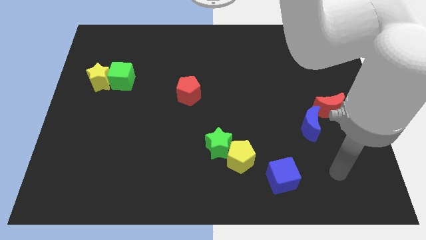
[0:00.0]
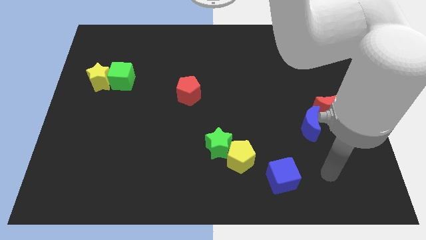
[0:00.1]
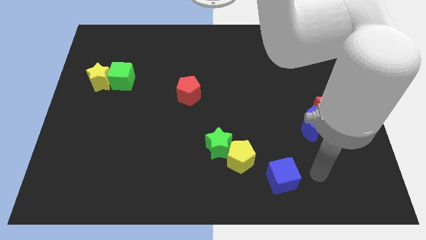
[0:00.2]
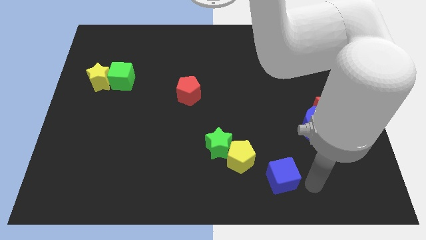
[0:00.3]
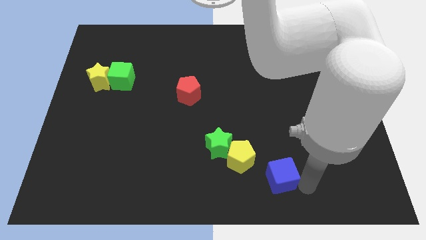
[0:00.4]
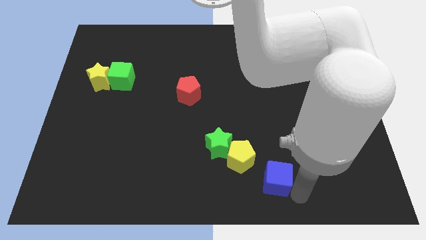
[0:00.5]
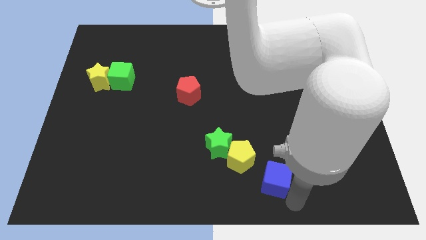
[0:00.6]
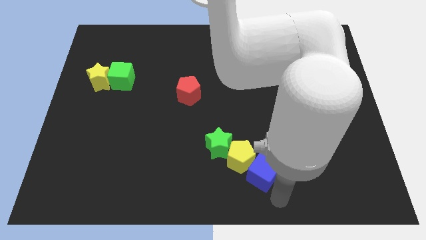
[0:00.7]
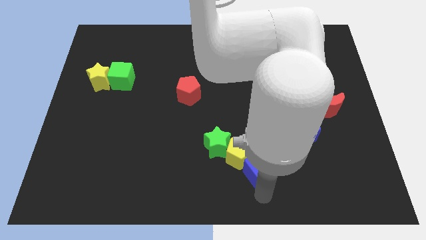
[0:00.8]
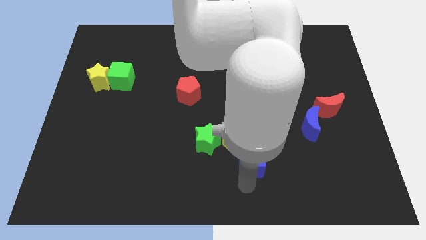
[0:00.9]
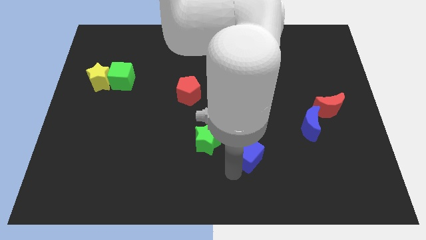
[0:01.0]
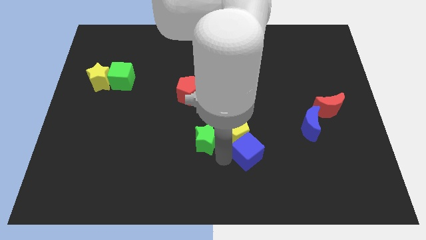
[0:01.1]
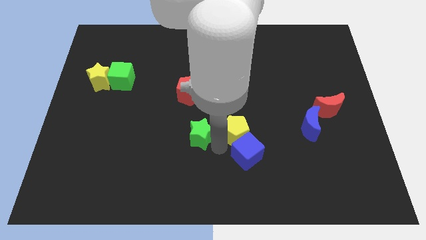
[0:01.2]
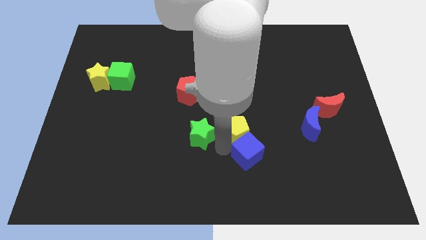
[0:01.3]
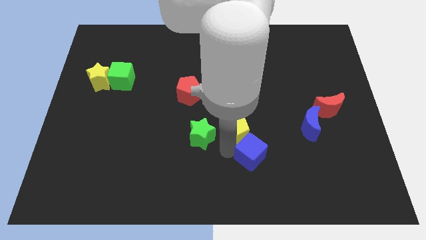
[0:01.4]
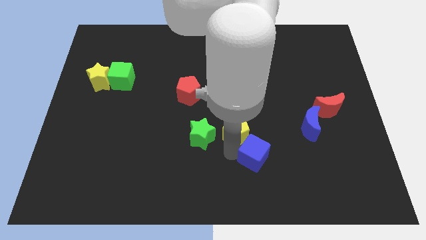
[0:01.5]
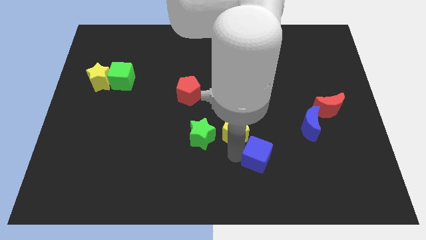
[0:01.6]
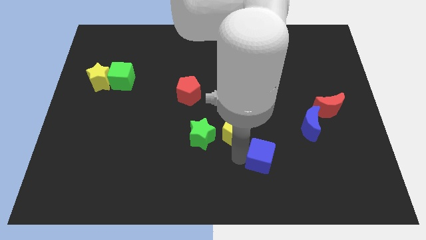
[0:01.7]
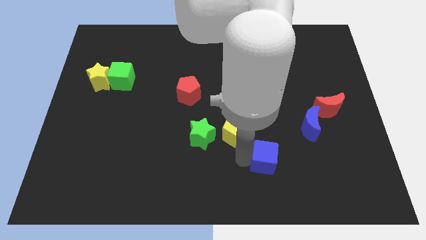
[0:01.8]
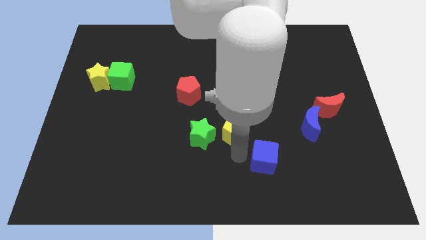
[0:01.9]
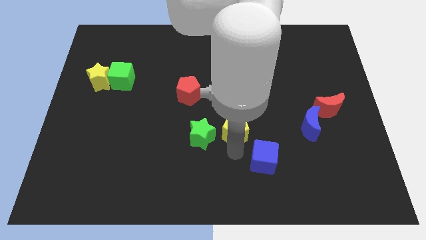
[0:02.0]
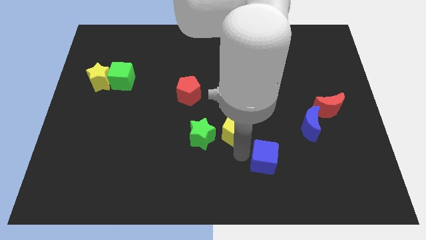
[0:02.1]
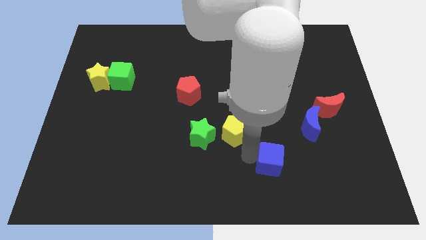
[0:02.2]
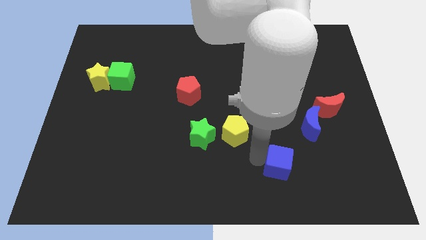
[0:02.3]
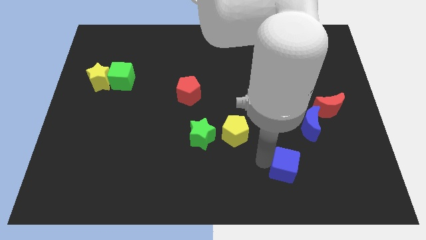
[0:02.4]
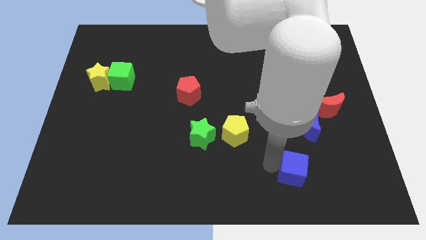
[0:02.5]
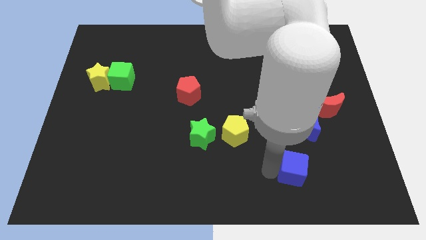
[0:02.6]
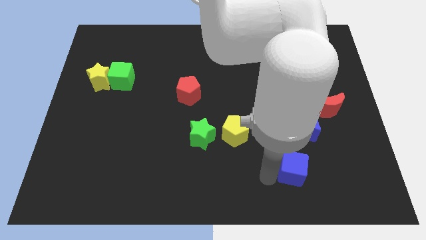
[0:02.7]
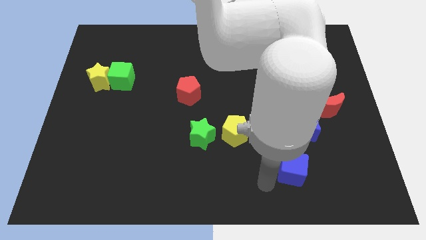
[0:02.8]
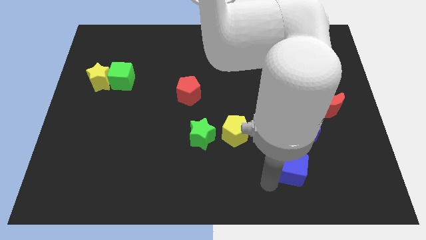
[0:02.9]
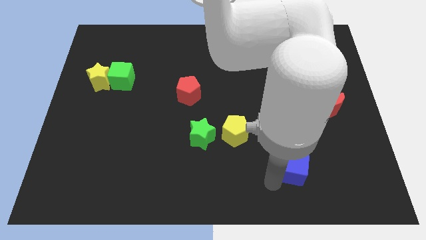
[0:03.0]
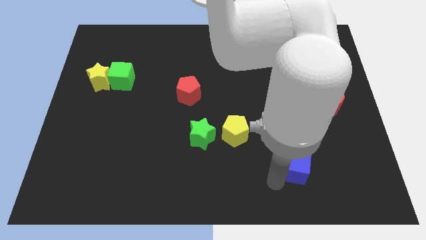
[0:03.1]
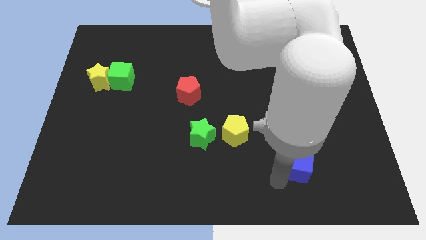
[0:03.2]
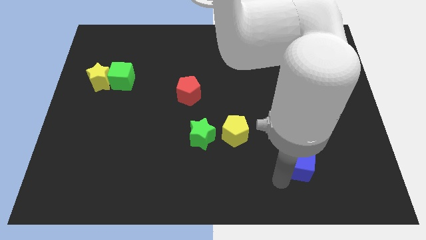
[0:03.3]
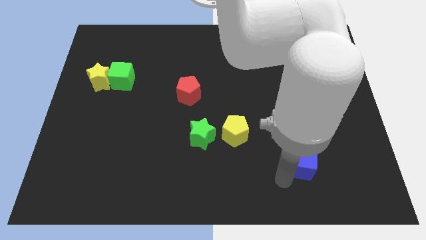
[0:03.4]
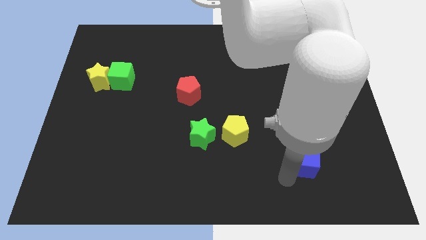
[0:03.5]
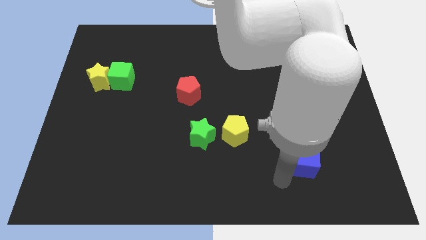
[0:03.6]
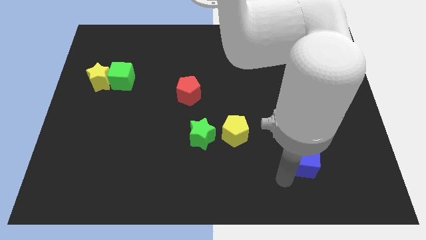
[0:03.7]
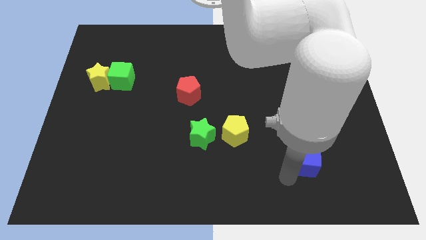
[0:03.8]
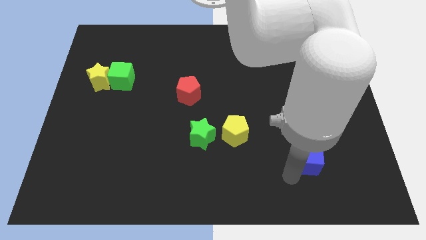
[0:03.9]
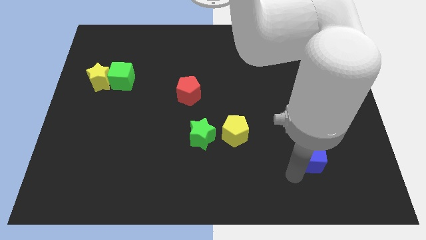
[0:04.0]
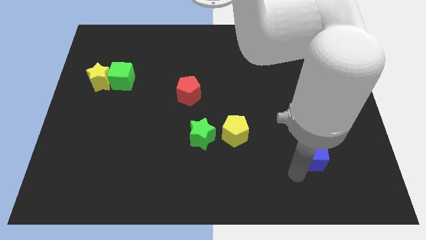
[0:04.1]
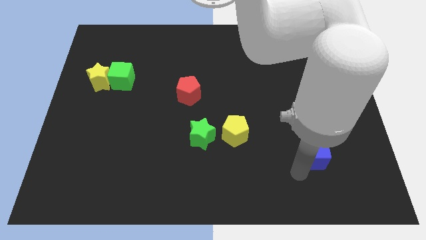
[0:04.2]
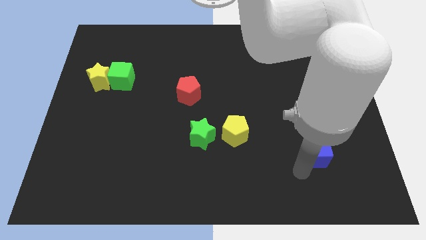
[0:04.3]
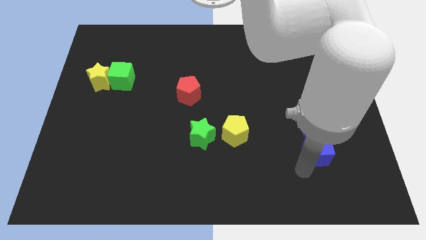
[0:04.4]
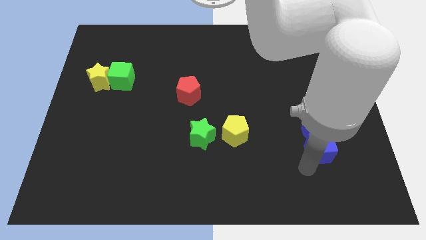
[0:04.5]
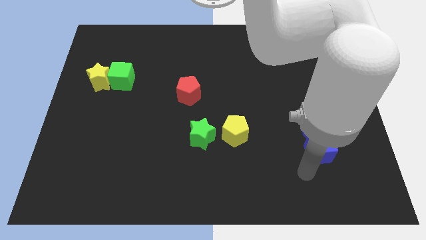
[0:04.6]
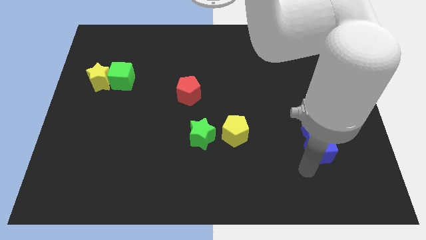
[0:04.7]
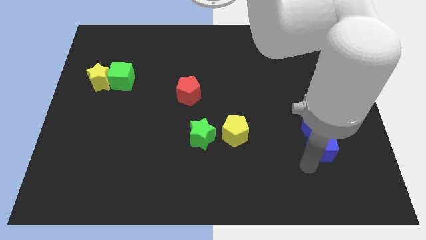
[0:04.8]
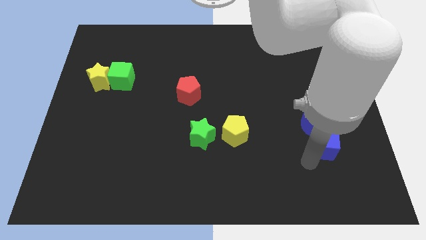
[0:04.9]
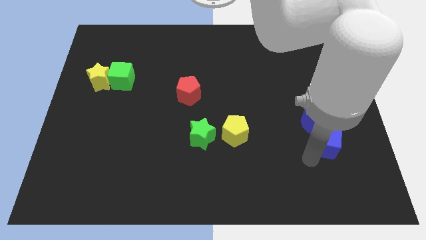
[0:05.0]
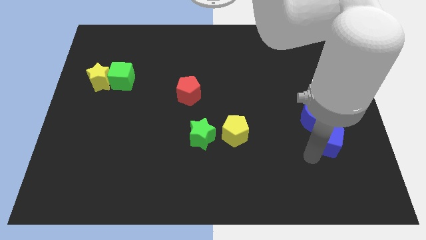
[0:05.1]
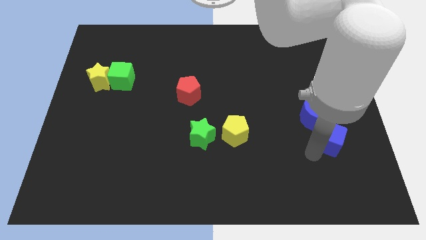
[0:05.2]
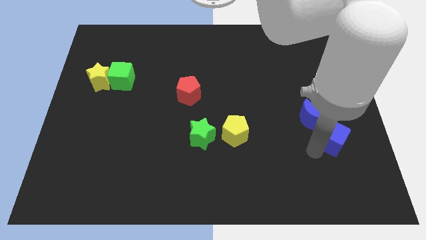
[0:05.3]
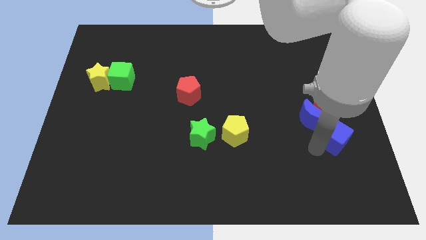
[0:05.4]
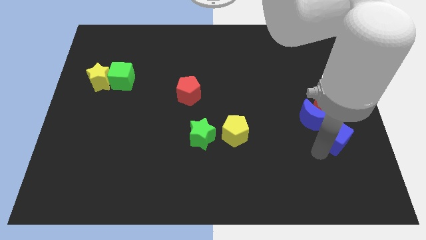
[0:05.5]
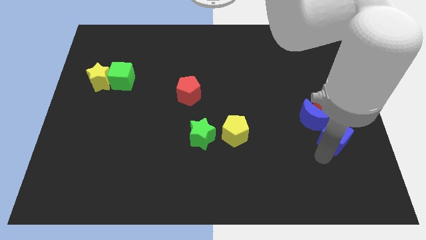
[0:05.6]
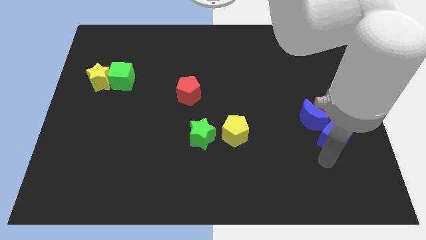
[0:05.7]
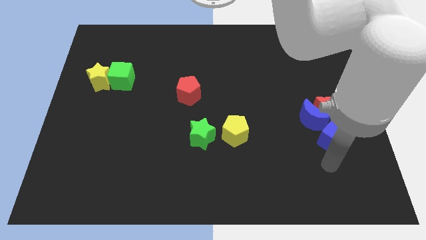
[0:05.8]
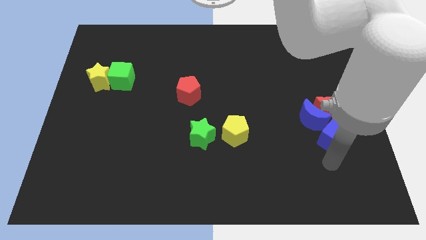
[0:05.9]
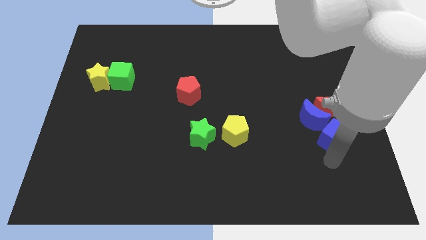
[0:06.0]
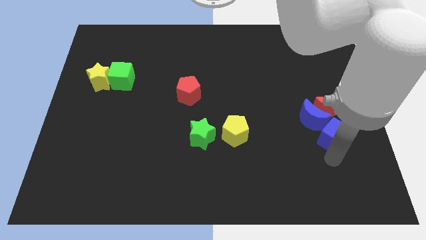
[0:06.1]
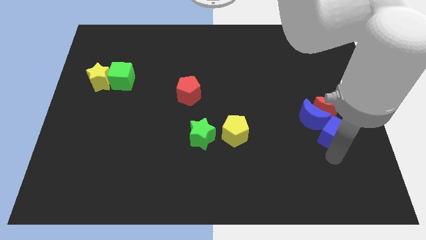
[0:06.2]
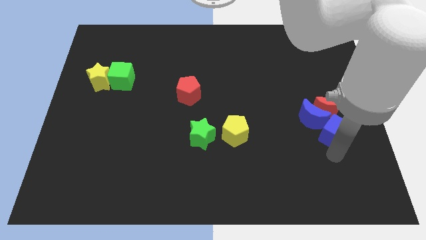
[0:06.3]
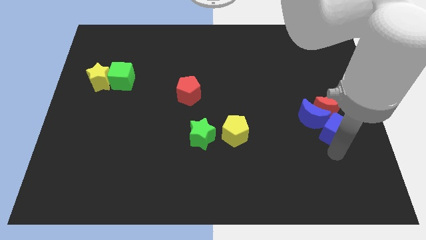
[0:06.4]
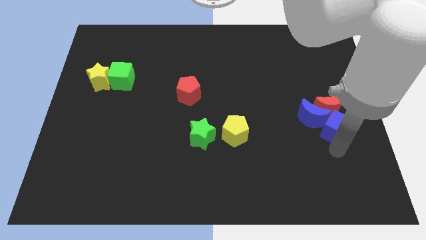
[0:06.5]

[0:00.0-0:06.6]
slide the blue cube towards the red moon
